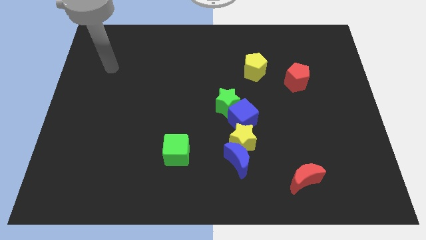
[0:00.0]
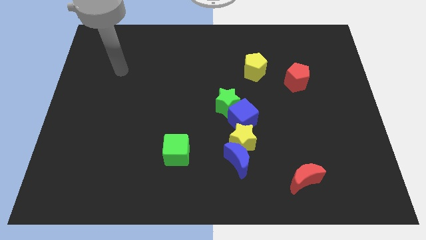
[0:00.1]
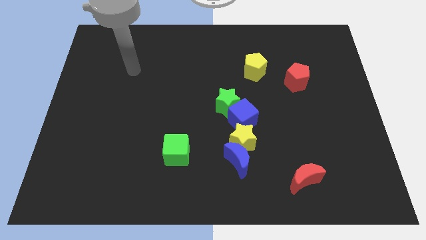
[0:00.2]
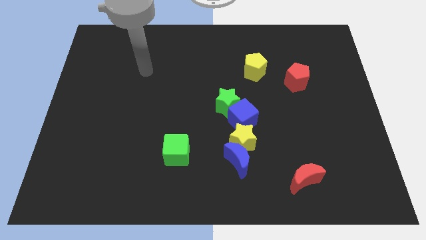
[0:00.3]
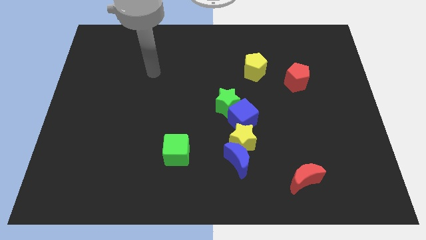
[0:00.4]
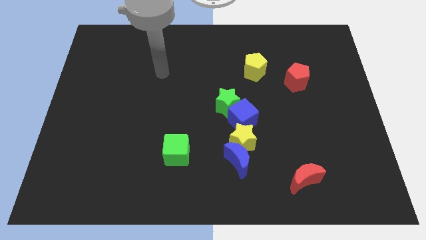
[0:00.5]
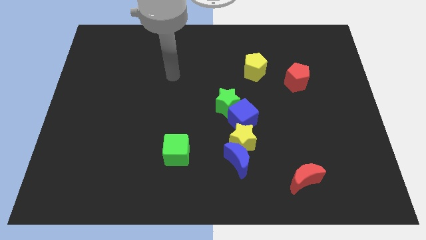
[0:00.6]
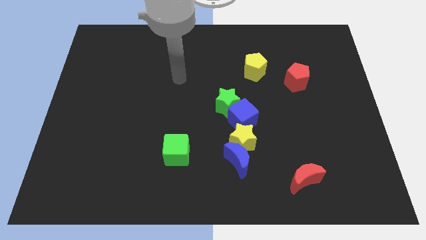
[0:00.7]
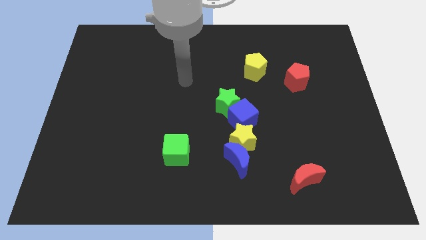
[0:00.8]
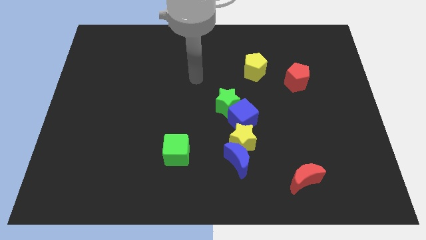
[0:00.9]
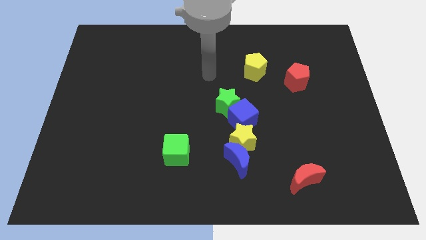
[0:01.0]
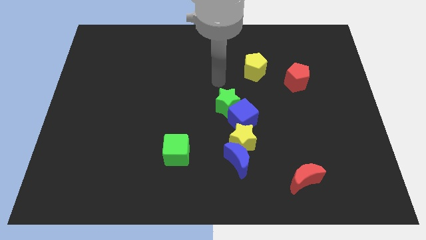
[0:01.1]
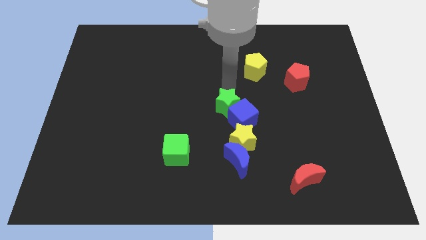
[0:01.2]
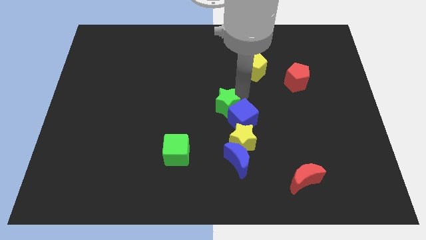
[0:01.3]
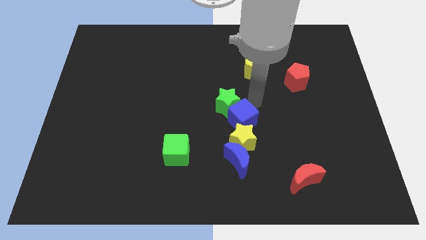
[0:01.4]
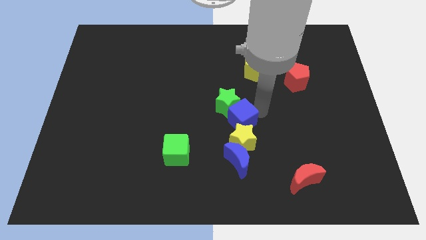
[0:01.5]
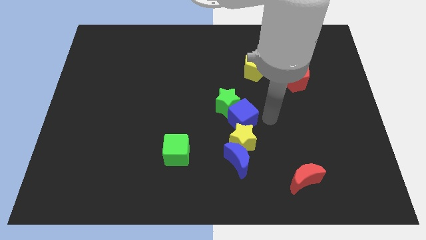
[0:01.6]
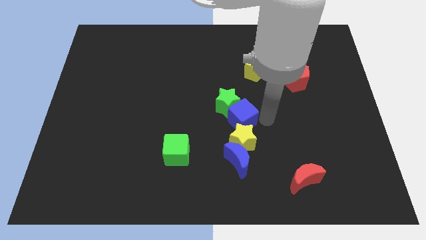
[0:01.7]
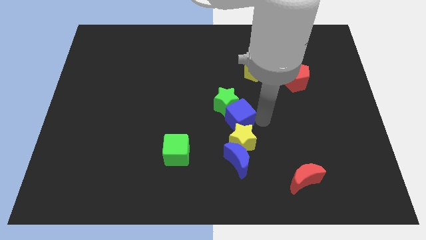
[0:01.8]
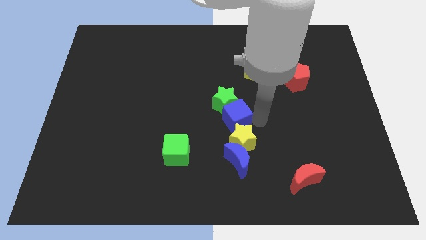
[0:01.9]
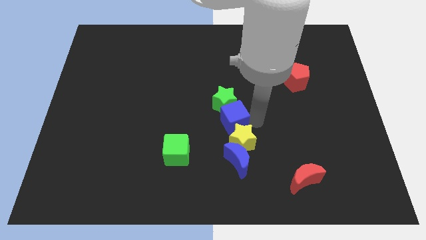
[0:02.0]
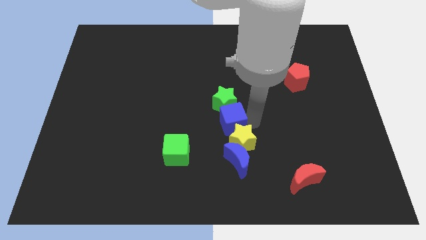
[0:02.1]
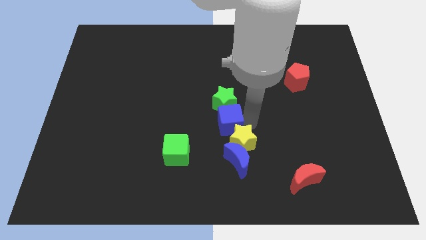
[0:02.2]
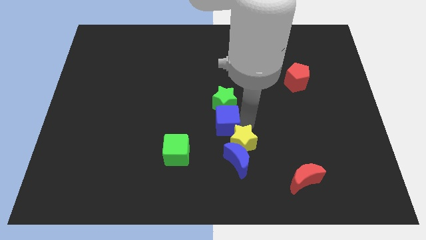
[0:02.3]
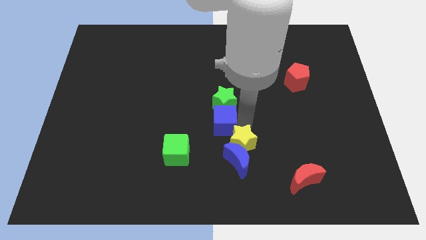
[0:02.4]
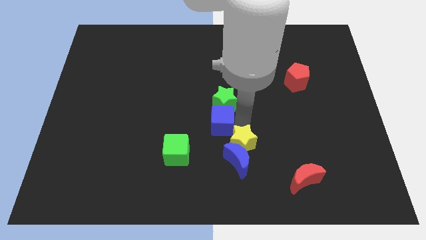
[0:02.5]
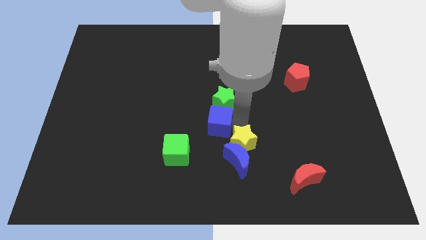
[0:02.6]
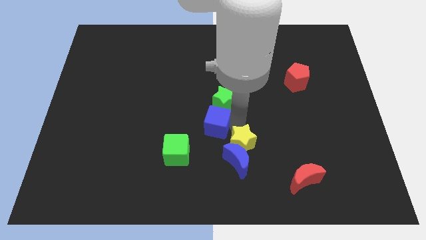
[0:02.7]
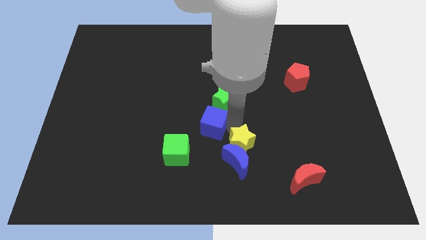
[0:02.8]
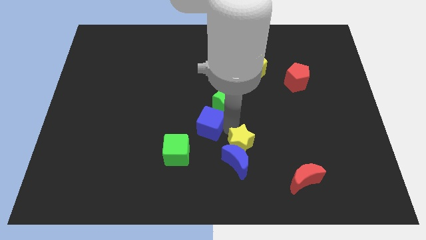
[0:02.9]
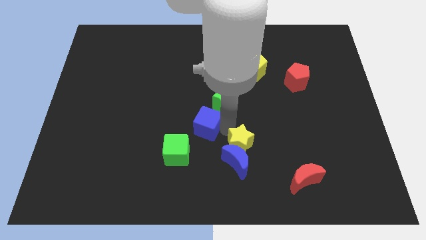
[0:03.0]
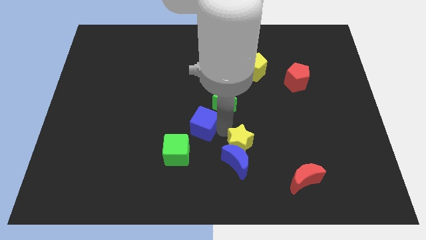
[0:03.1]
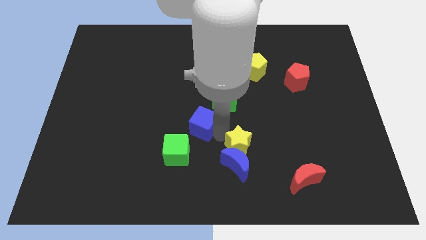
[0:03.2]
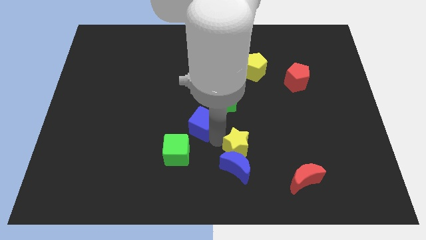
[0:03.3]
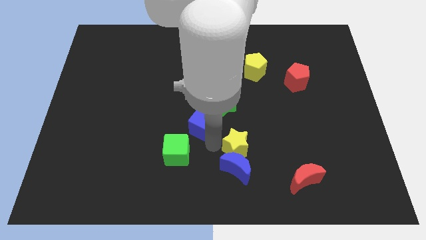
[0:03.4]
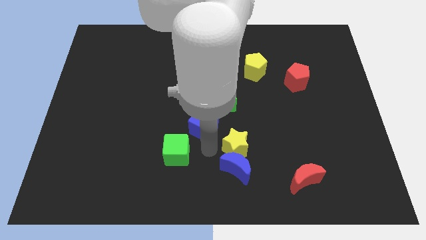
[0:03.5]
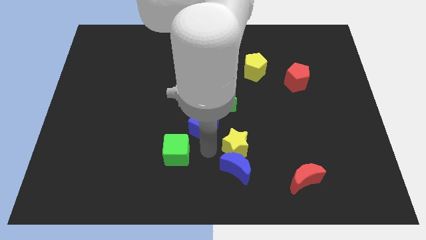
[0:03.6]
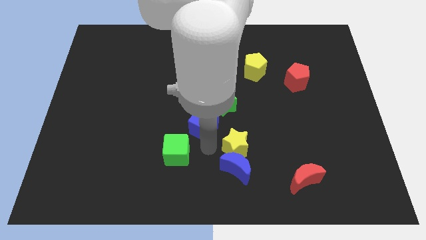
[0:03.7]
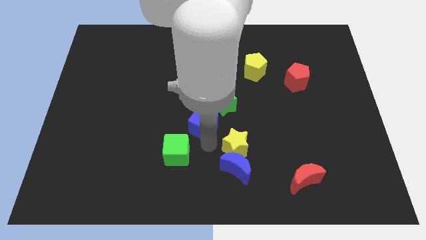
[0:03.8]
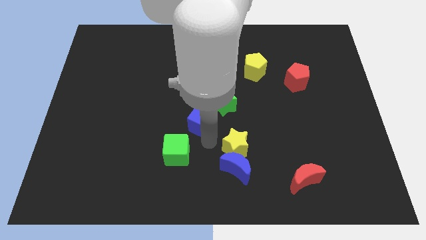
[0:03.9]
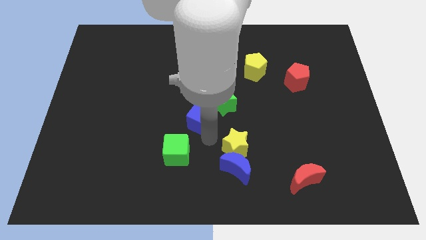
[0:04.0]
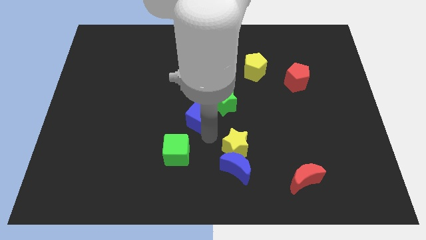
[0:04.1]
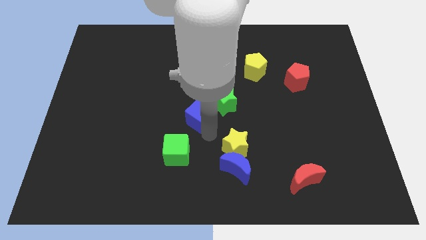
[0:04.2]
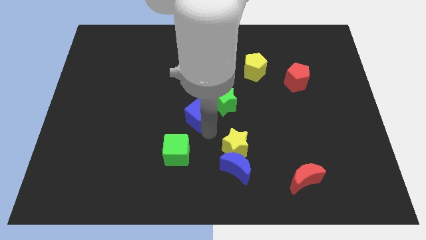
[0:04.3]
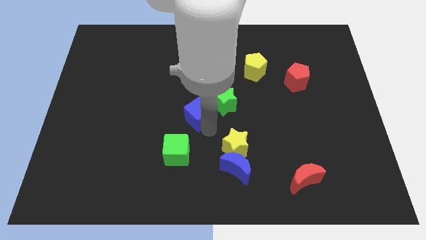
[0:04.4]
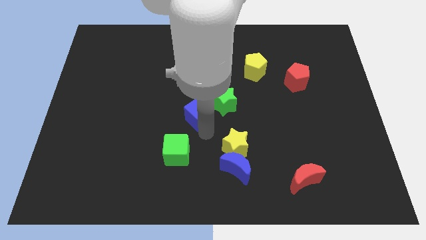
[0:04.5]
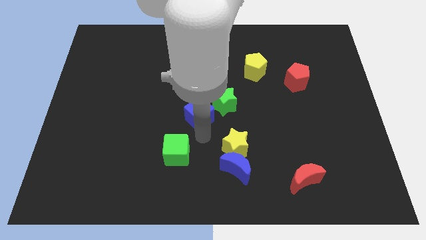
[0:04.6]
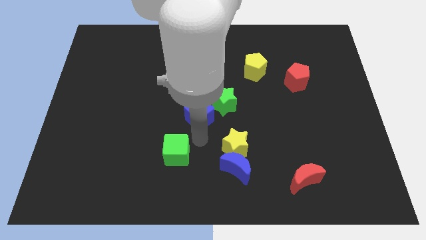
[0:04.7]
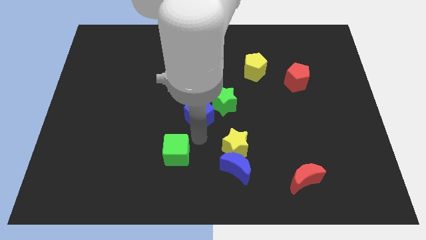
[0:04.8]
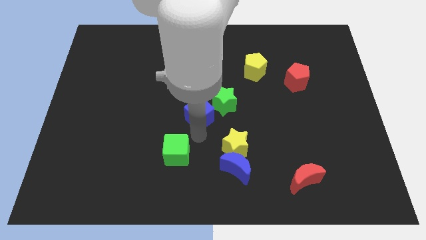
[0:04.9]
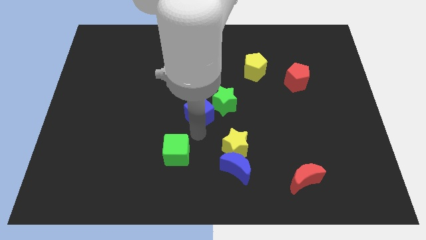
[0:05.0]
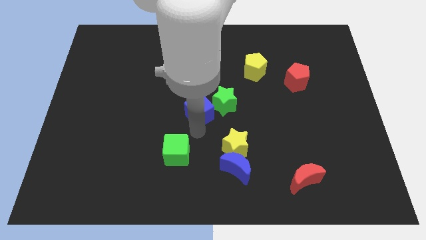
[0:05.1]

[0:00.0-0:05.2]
slide the blue cube diagonally up and left a little bit

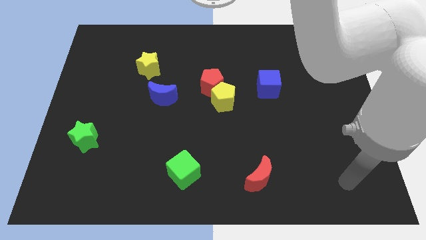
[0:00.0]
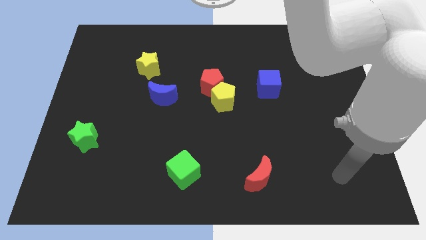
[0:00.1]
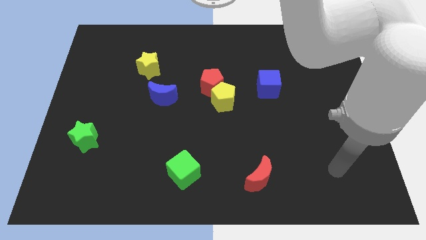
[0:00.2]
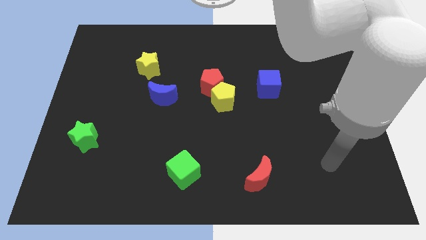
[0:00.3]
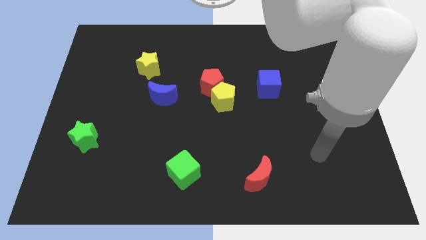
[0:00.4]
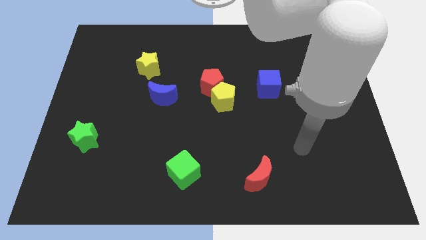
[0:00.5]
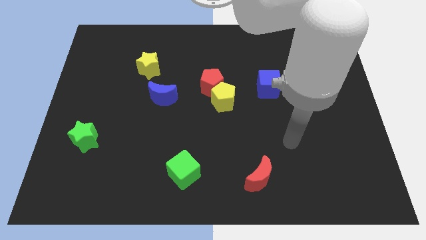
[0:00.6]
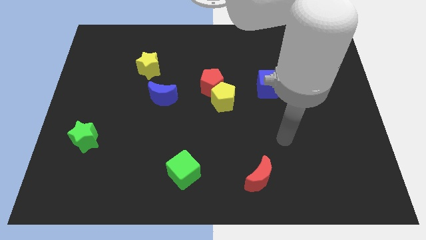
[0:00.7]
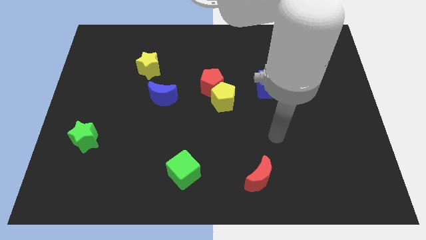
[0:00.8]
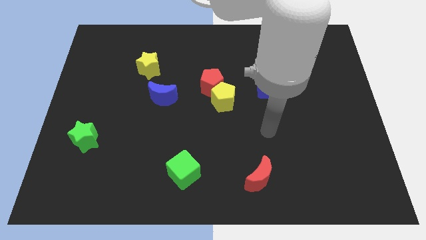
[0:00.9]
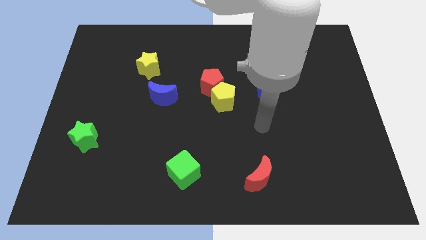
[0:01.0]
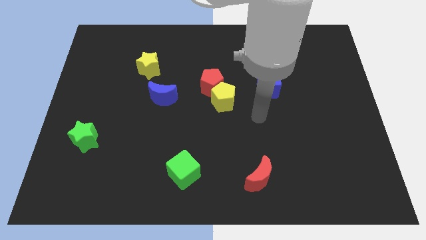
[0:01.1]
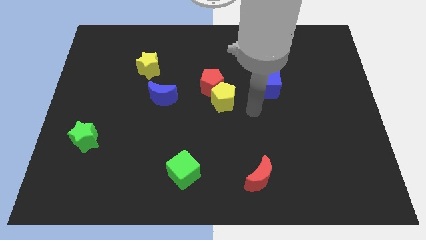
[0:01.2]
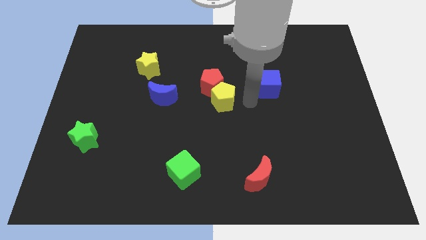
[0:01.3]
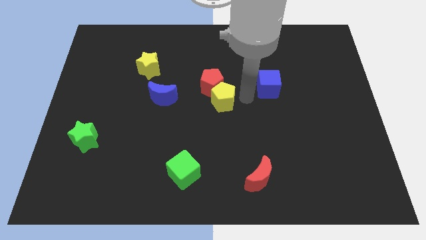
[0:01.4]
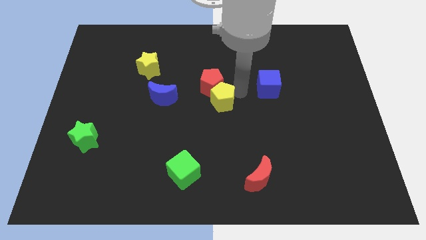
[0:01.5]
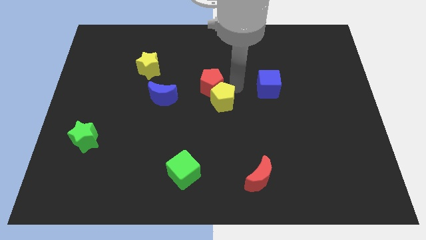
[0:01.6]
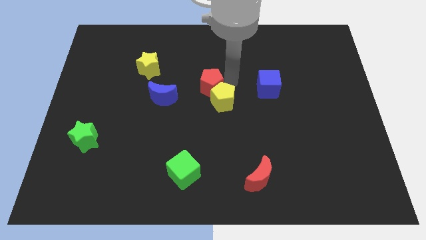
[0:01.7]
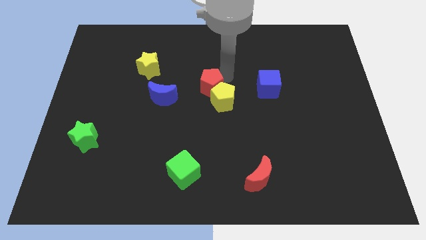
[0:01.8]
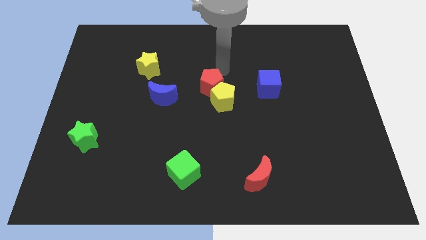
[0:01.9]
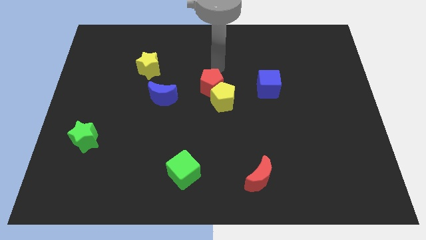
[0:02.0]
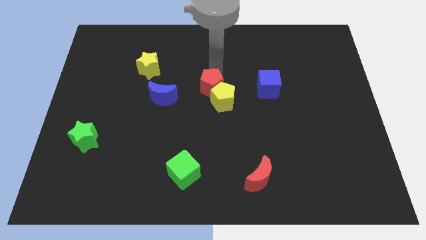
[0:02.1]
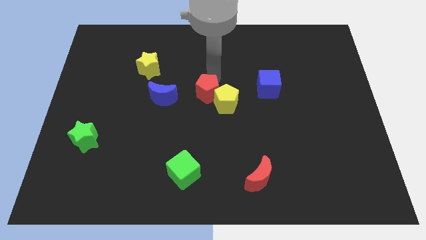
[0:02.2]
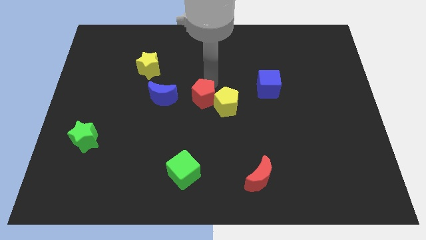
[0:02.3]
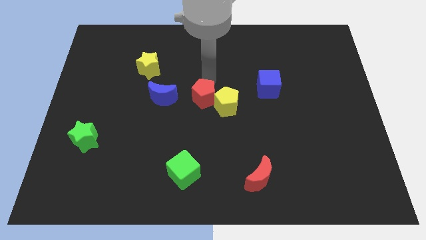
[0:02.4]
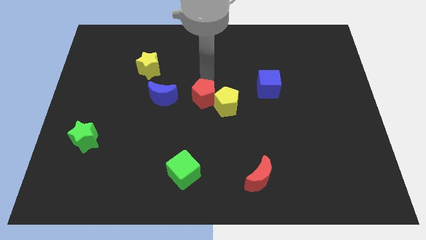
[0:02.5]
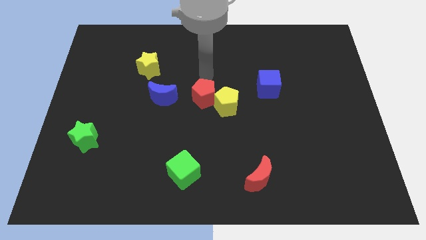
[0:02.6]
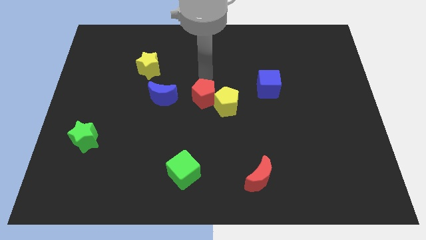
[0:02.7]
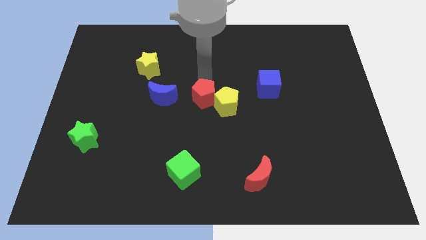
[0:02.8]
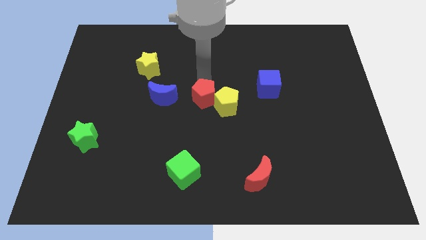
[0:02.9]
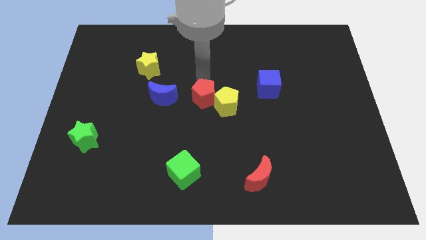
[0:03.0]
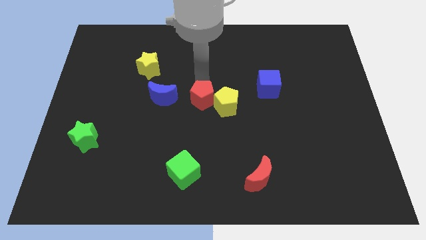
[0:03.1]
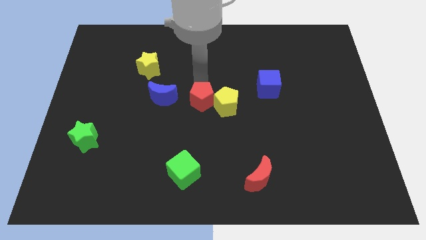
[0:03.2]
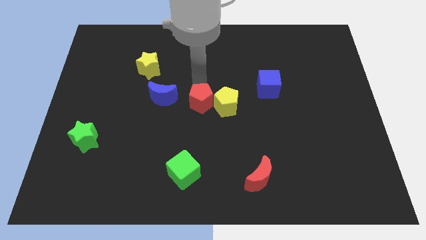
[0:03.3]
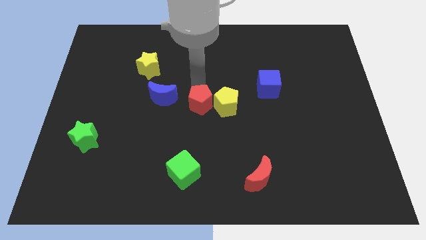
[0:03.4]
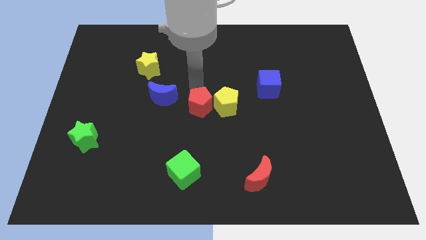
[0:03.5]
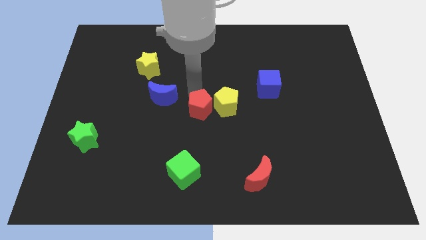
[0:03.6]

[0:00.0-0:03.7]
push the red pentagon somewhat downwards
